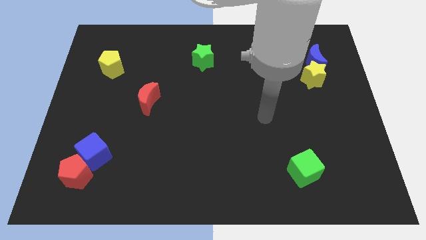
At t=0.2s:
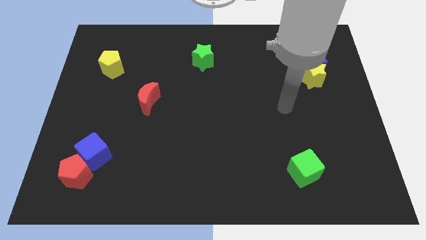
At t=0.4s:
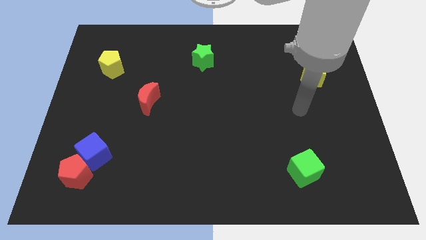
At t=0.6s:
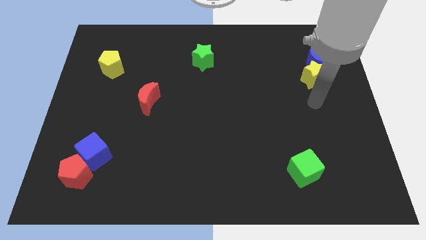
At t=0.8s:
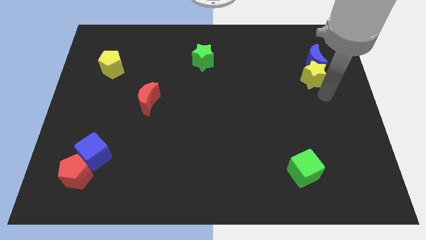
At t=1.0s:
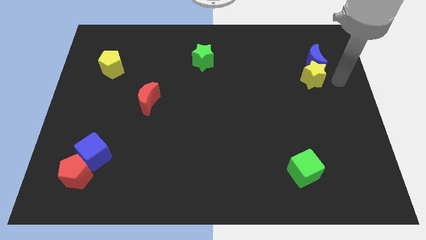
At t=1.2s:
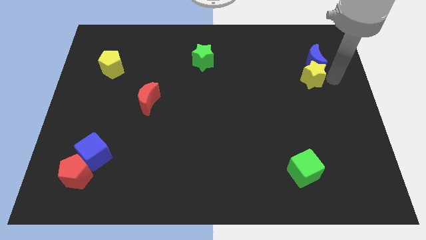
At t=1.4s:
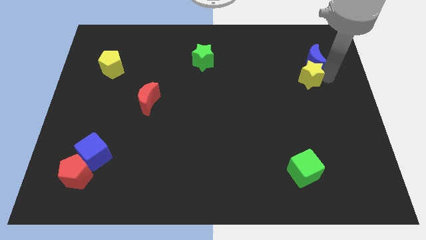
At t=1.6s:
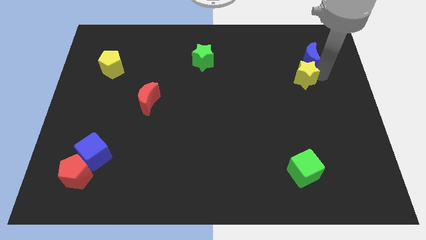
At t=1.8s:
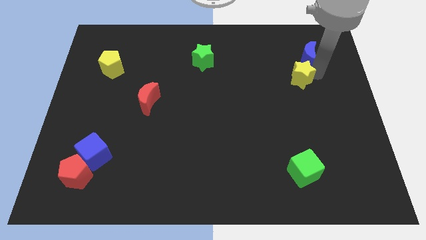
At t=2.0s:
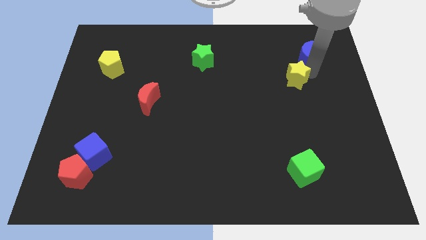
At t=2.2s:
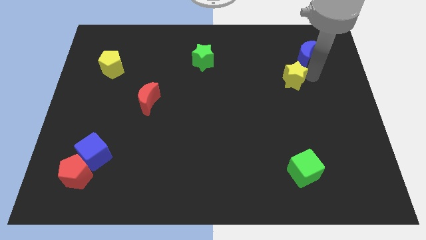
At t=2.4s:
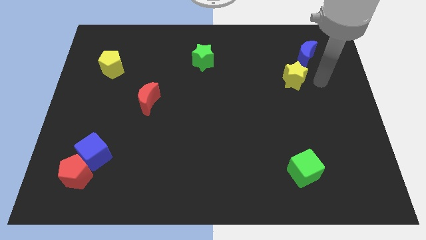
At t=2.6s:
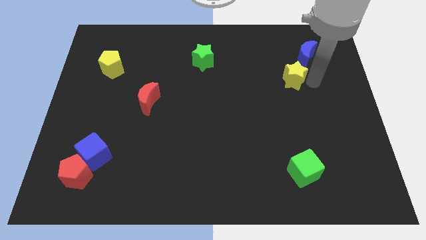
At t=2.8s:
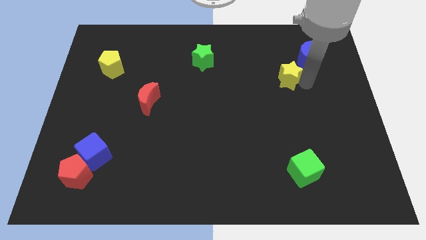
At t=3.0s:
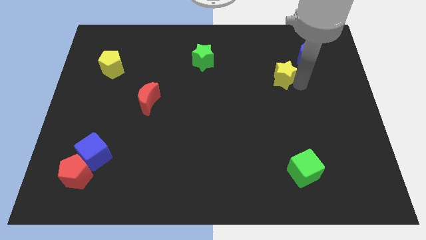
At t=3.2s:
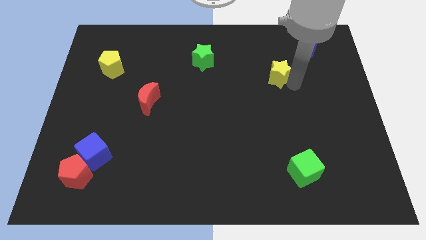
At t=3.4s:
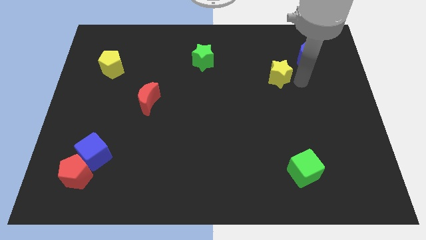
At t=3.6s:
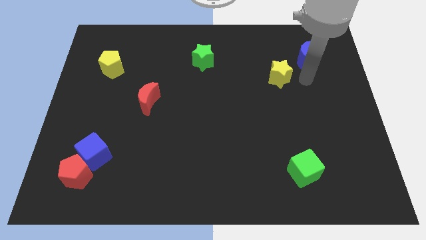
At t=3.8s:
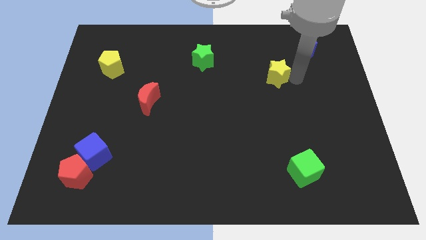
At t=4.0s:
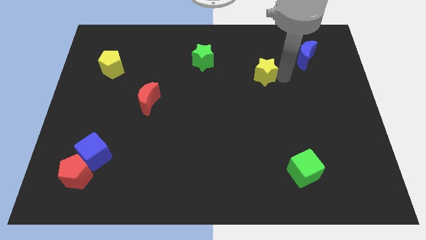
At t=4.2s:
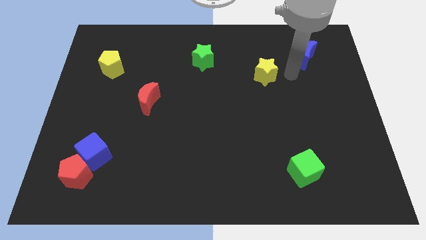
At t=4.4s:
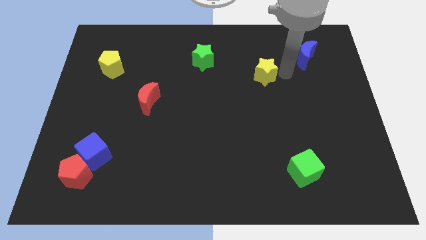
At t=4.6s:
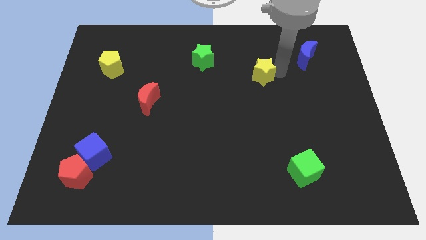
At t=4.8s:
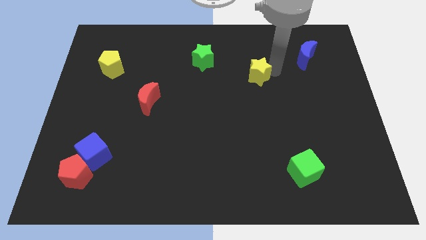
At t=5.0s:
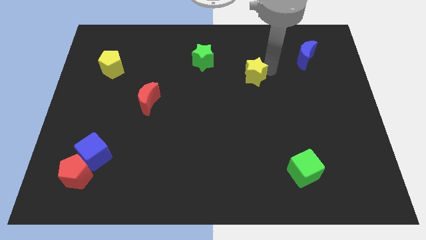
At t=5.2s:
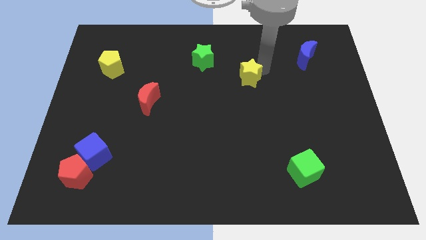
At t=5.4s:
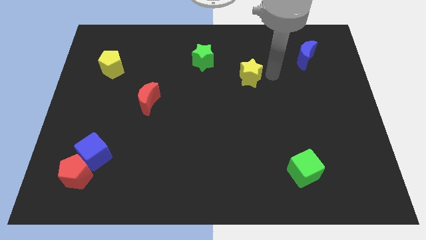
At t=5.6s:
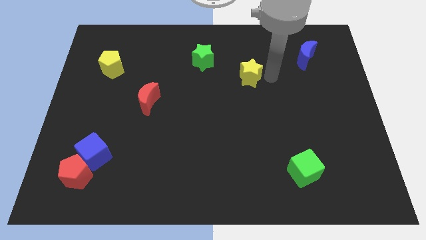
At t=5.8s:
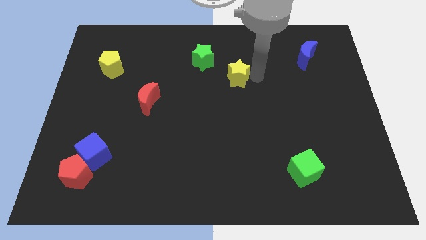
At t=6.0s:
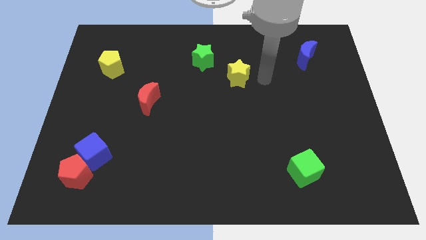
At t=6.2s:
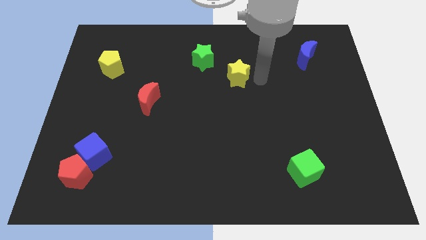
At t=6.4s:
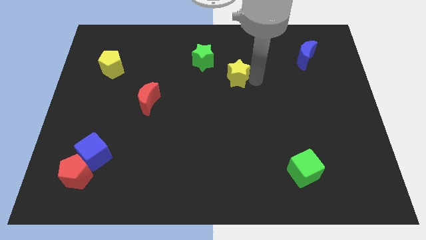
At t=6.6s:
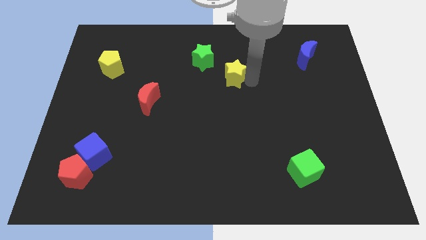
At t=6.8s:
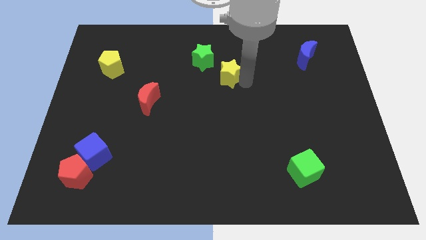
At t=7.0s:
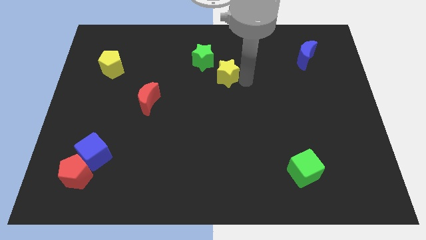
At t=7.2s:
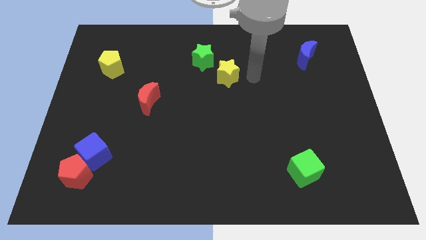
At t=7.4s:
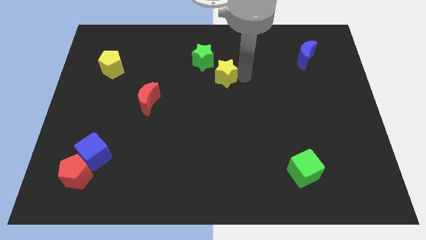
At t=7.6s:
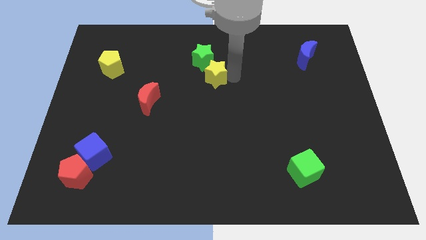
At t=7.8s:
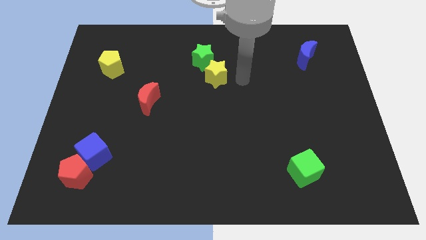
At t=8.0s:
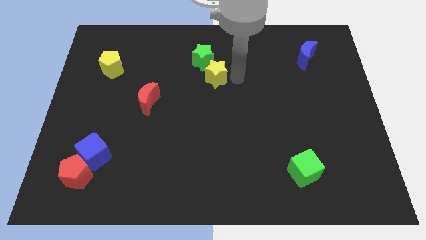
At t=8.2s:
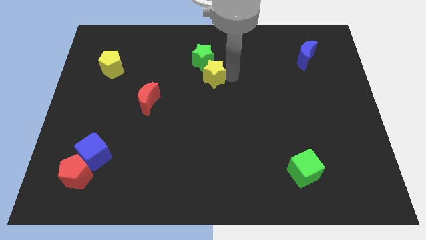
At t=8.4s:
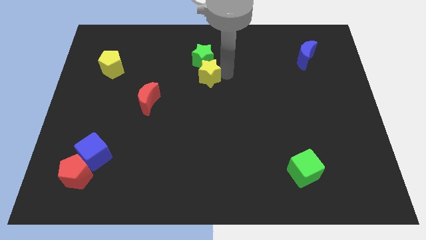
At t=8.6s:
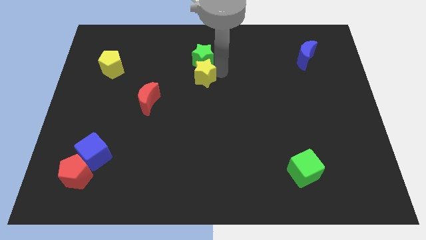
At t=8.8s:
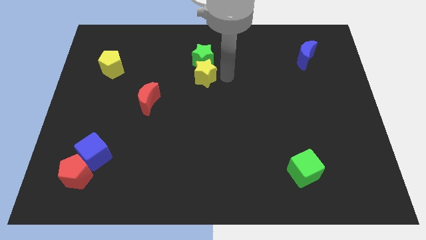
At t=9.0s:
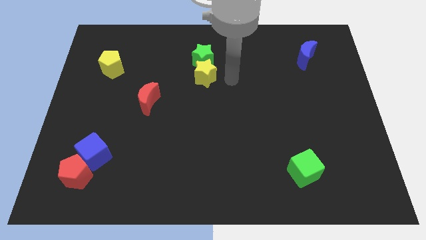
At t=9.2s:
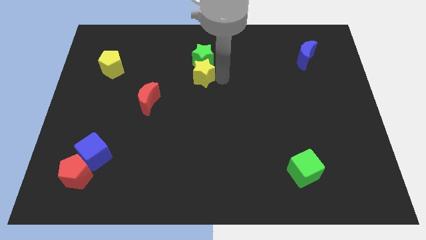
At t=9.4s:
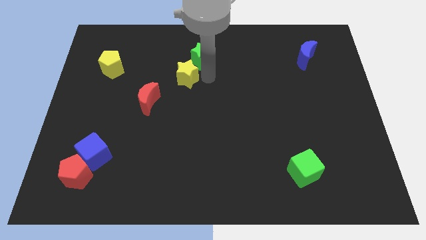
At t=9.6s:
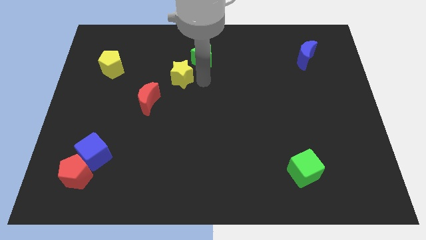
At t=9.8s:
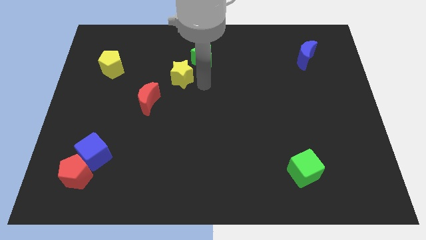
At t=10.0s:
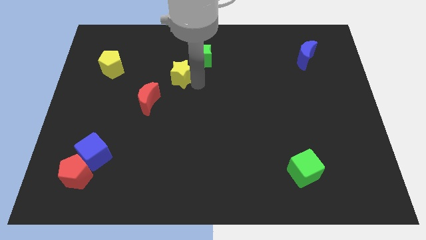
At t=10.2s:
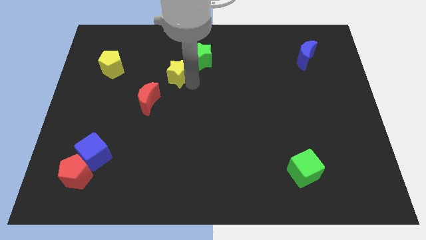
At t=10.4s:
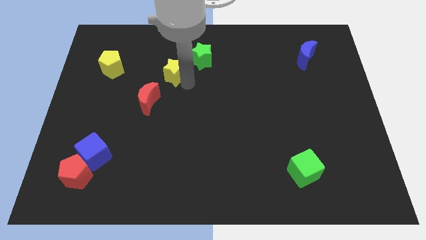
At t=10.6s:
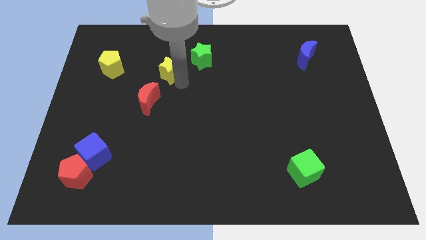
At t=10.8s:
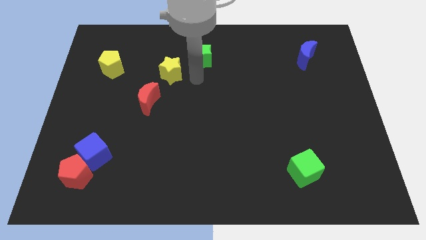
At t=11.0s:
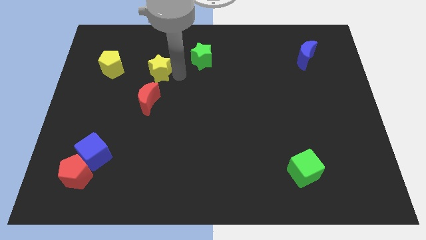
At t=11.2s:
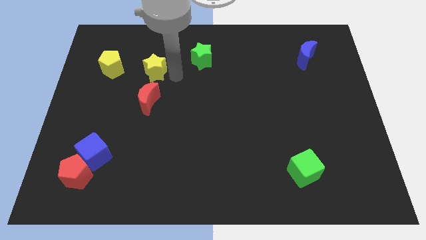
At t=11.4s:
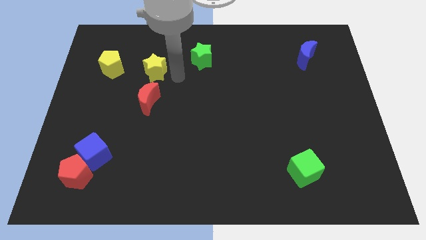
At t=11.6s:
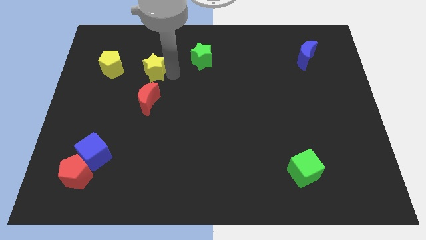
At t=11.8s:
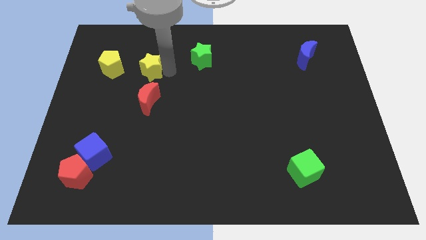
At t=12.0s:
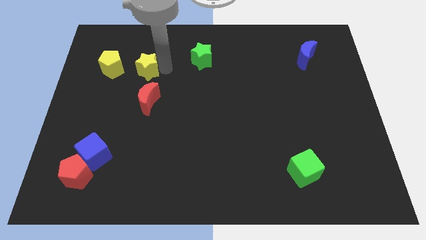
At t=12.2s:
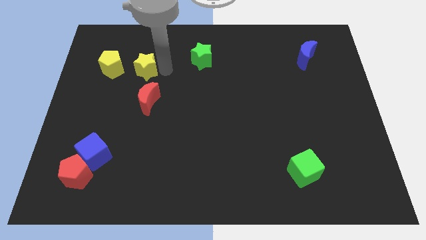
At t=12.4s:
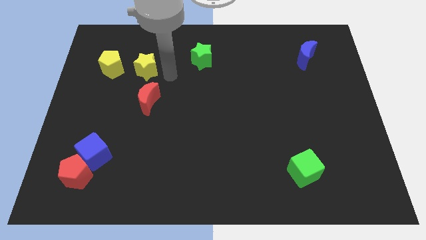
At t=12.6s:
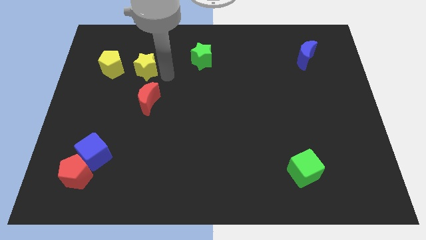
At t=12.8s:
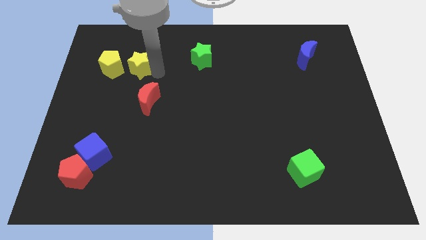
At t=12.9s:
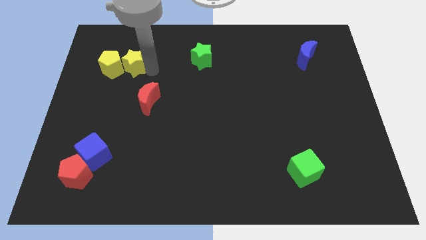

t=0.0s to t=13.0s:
slide the yellow star to the yellow pentagon

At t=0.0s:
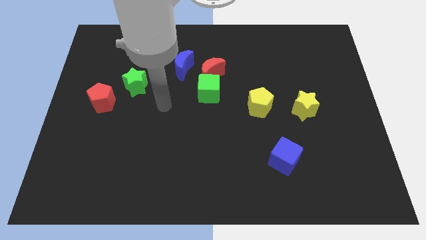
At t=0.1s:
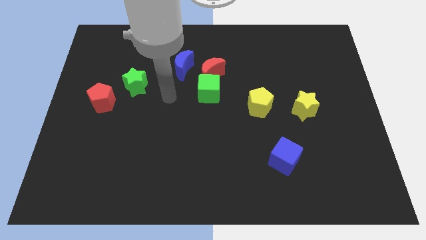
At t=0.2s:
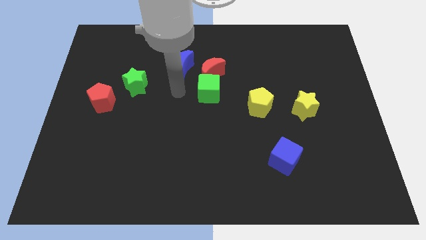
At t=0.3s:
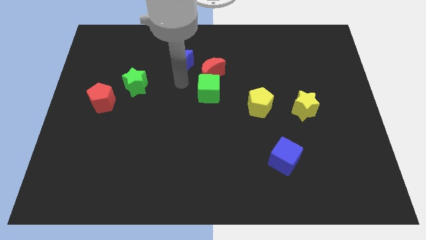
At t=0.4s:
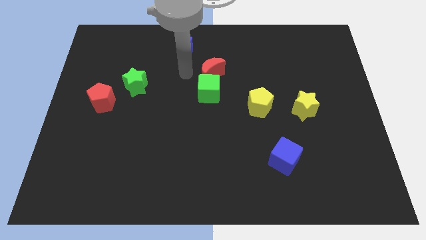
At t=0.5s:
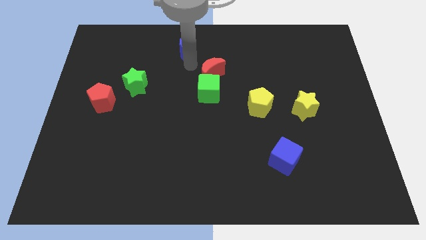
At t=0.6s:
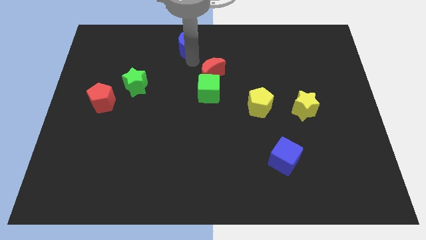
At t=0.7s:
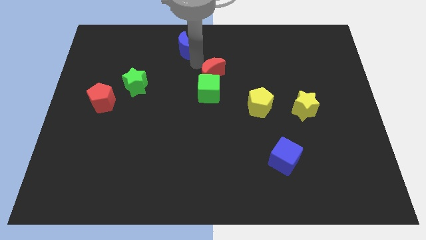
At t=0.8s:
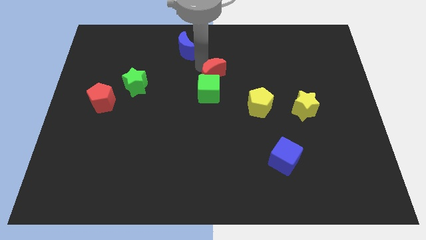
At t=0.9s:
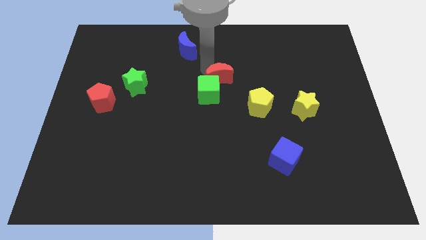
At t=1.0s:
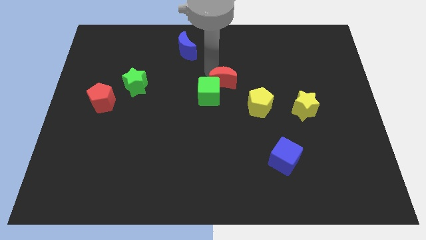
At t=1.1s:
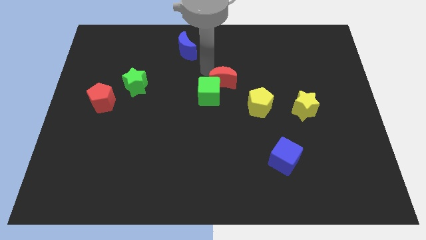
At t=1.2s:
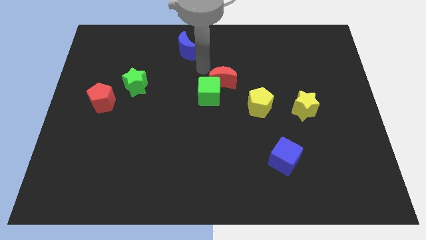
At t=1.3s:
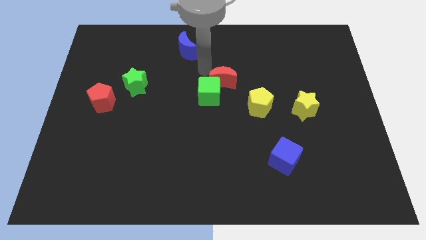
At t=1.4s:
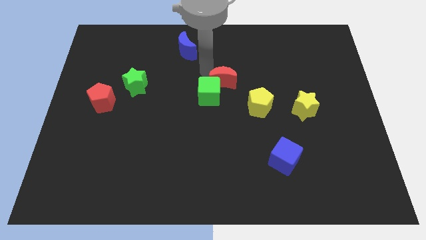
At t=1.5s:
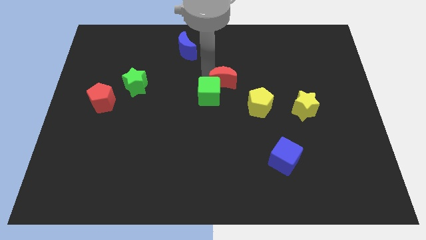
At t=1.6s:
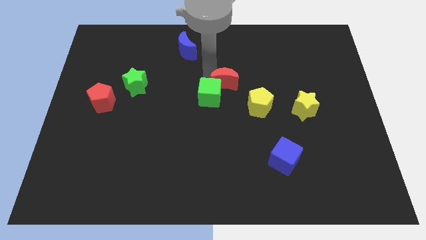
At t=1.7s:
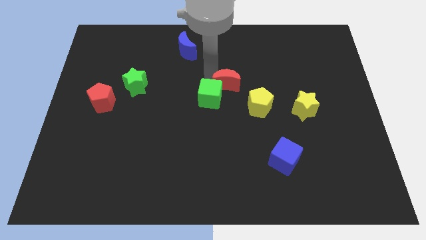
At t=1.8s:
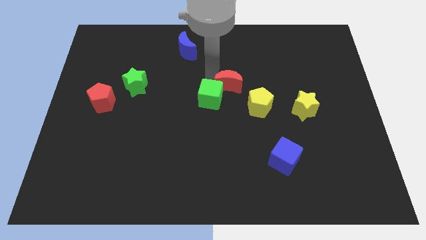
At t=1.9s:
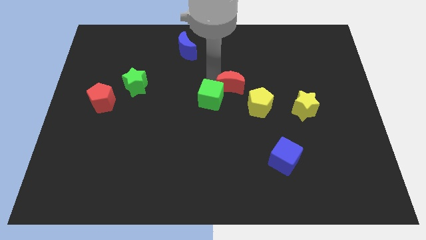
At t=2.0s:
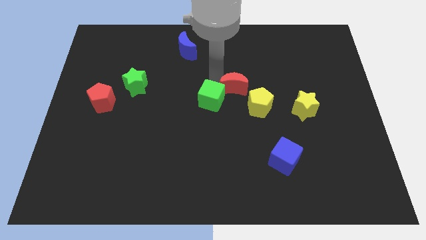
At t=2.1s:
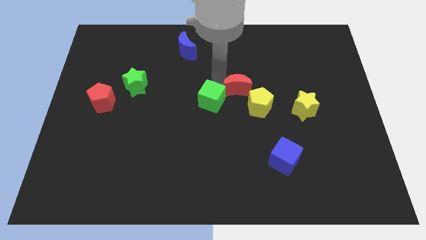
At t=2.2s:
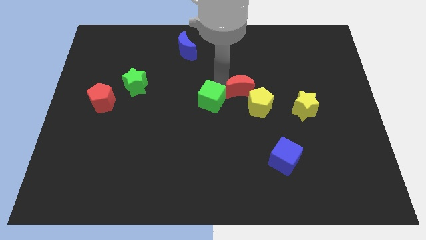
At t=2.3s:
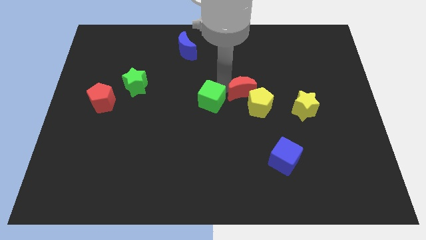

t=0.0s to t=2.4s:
move the red moon next to the yellow pentagon
